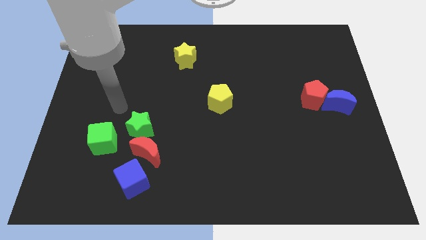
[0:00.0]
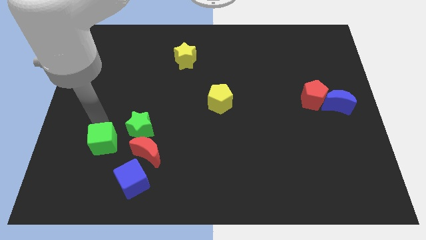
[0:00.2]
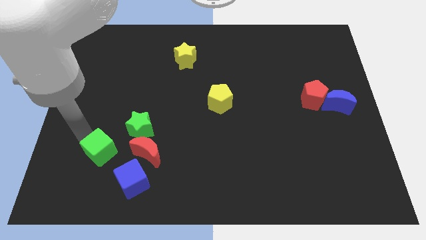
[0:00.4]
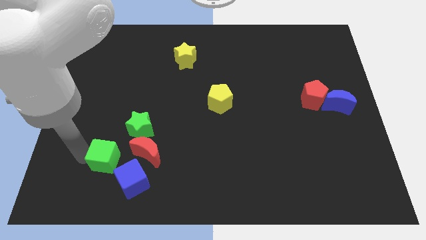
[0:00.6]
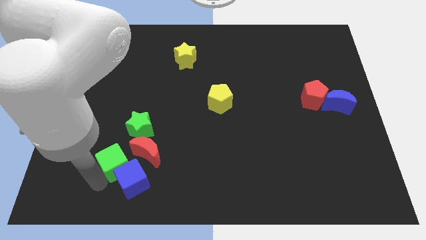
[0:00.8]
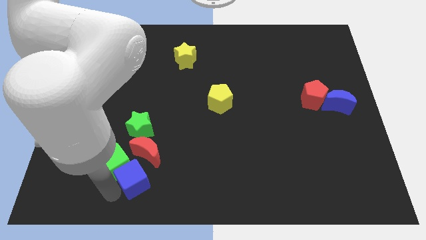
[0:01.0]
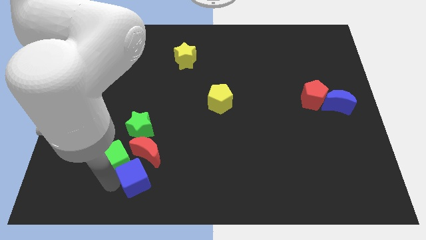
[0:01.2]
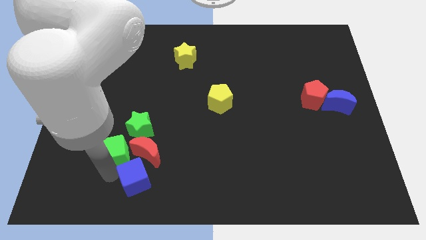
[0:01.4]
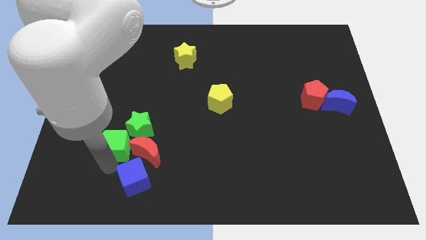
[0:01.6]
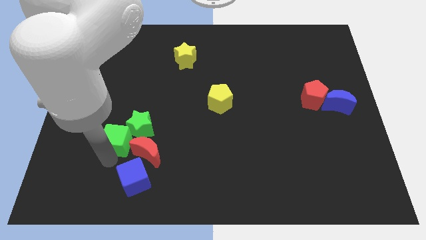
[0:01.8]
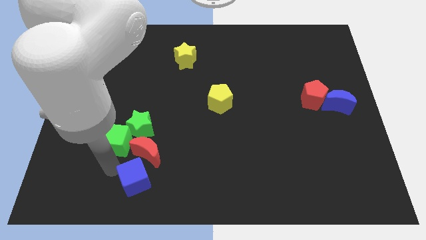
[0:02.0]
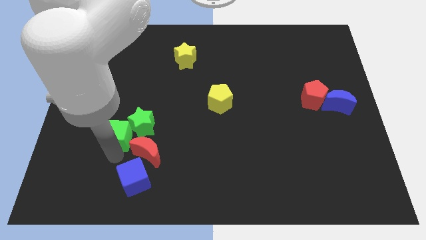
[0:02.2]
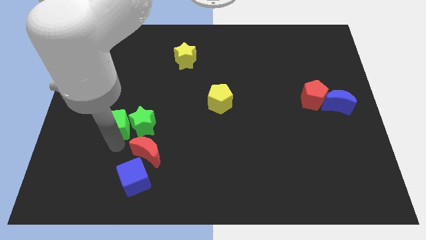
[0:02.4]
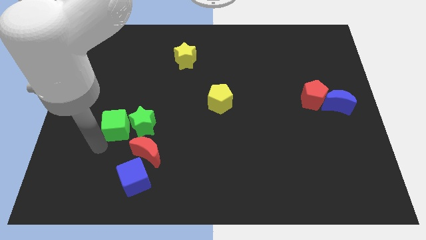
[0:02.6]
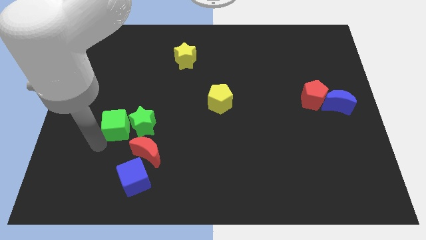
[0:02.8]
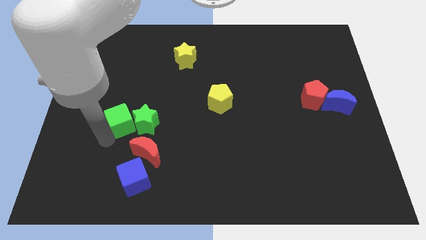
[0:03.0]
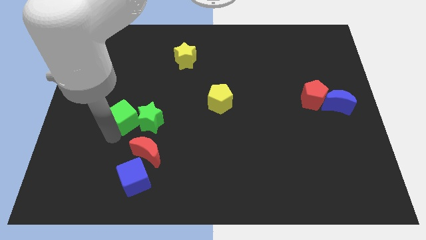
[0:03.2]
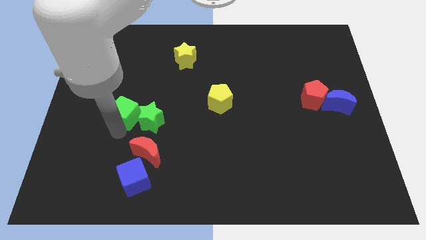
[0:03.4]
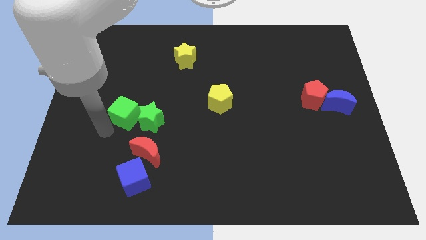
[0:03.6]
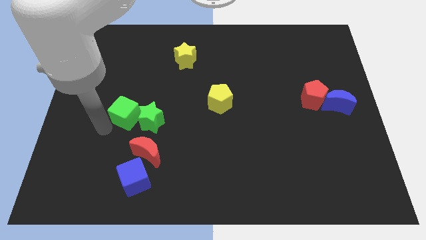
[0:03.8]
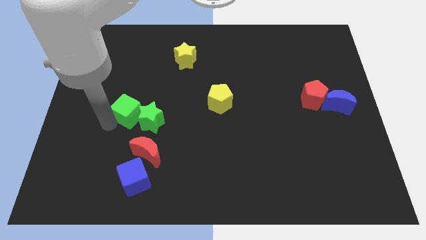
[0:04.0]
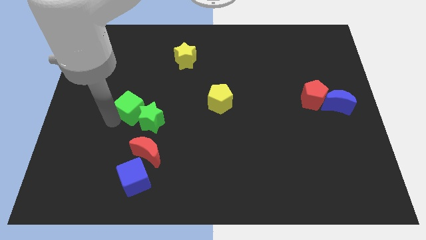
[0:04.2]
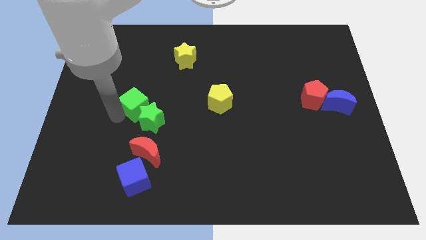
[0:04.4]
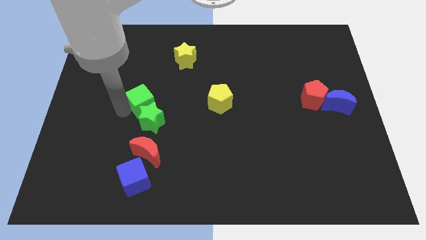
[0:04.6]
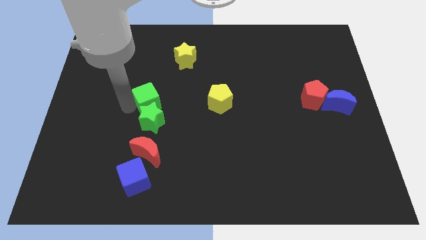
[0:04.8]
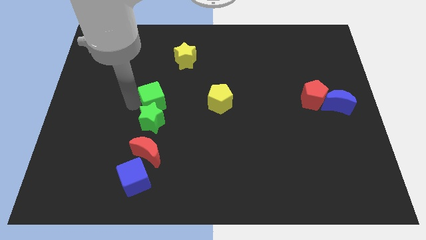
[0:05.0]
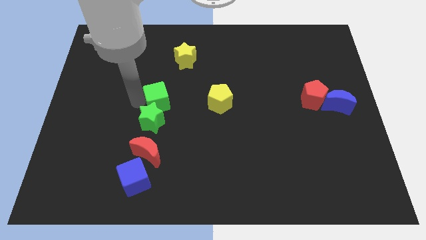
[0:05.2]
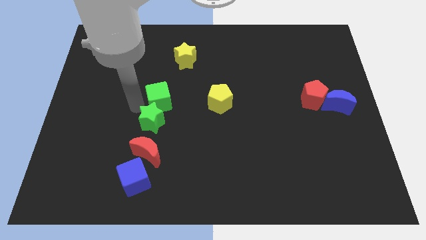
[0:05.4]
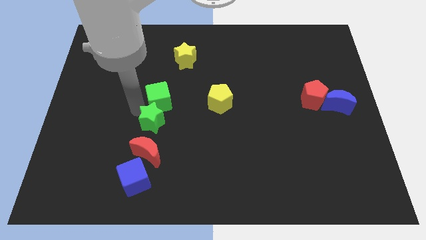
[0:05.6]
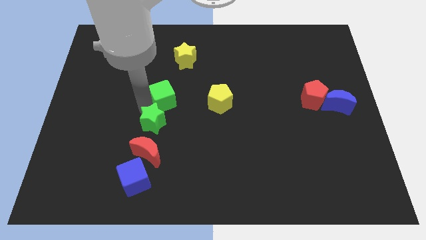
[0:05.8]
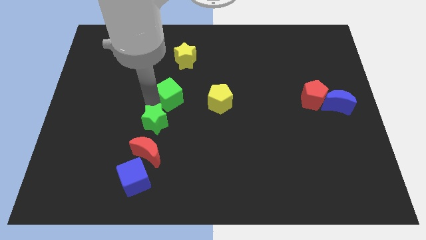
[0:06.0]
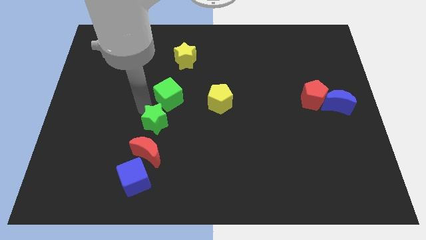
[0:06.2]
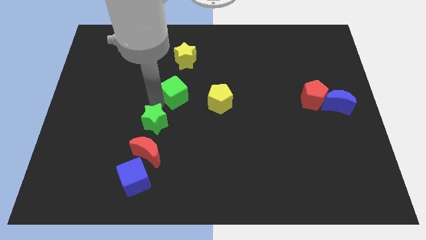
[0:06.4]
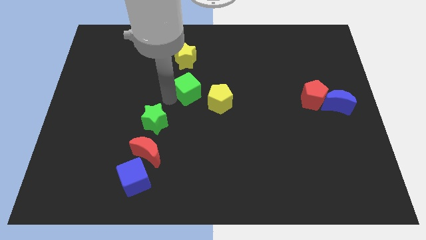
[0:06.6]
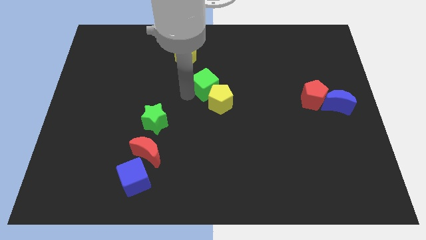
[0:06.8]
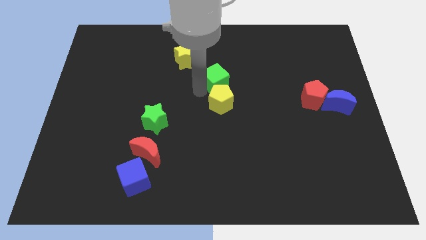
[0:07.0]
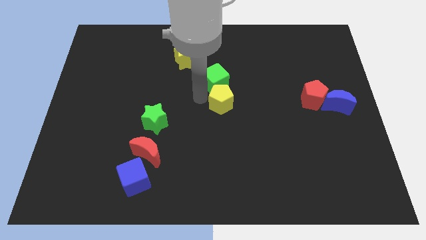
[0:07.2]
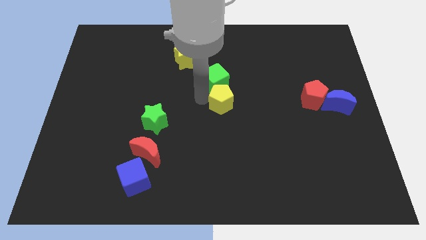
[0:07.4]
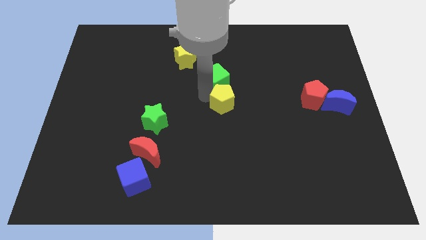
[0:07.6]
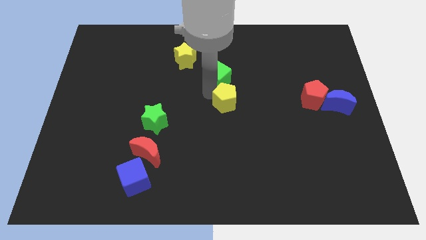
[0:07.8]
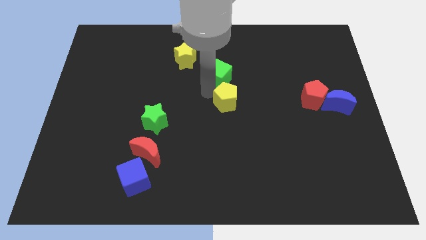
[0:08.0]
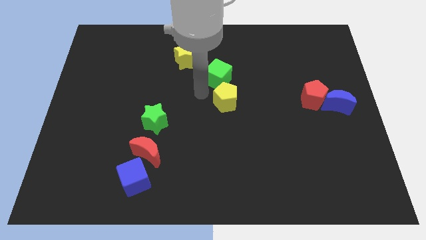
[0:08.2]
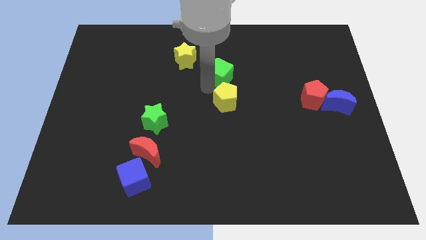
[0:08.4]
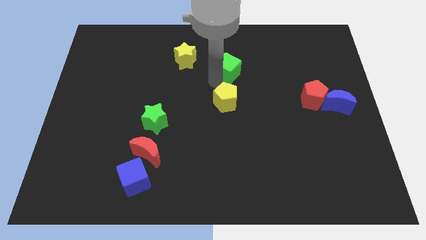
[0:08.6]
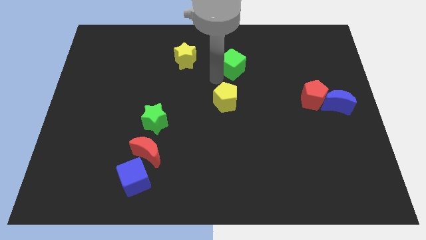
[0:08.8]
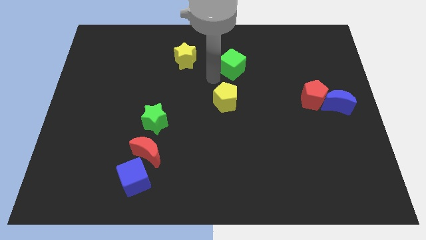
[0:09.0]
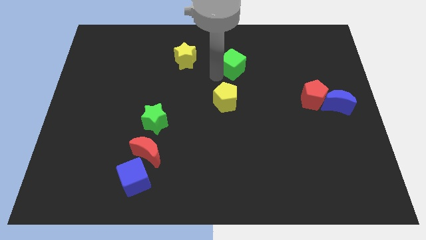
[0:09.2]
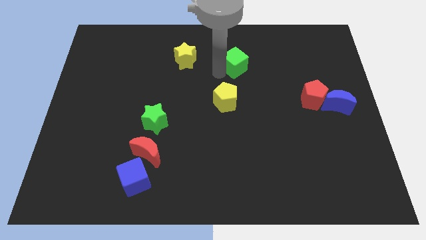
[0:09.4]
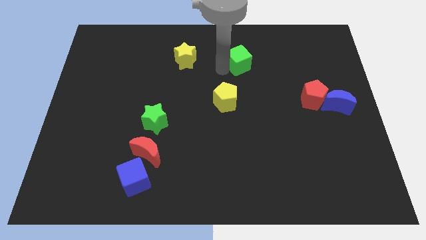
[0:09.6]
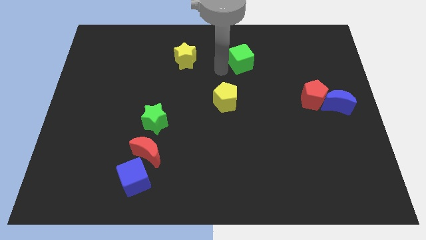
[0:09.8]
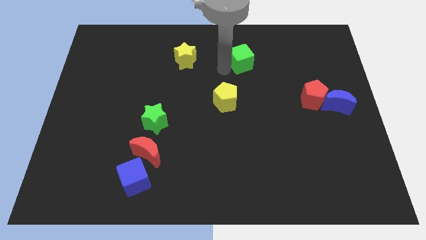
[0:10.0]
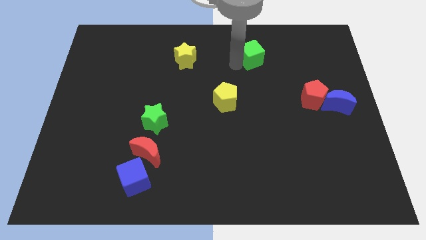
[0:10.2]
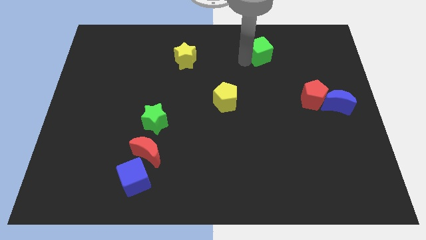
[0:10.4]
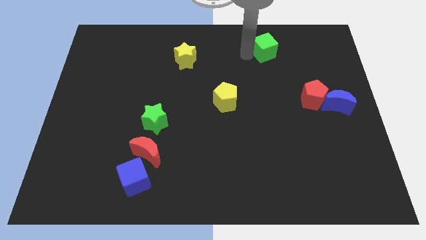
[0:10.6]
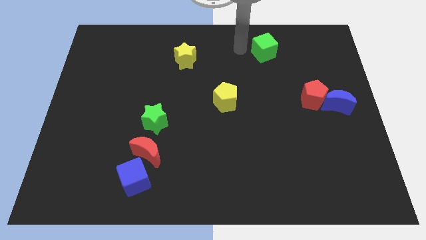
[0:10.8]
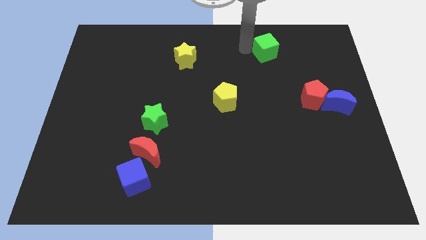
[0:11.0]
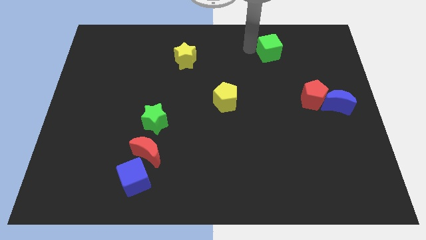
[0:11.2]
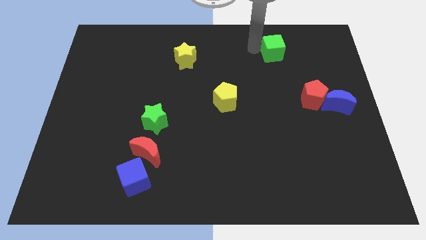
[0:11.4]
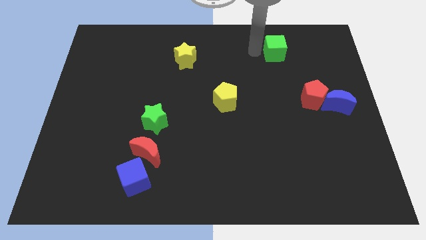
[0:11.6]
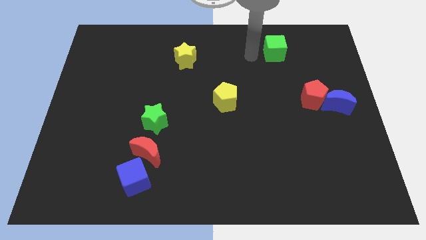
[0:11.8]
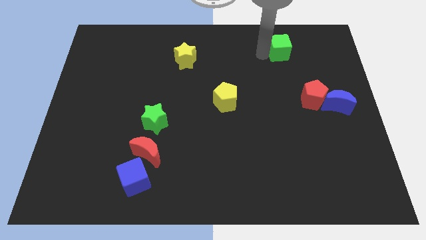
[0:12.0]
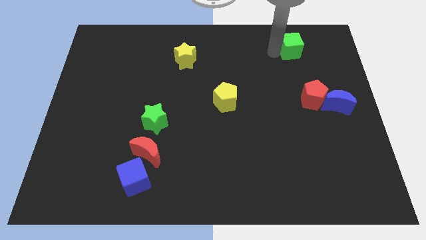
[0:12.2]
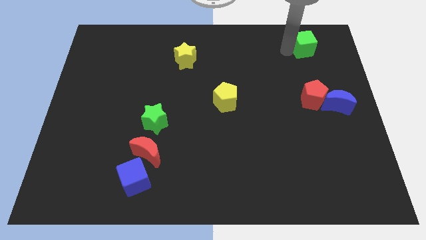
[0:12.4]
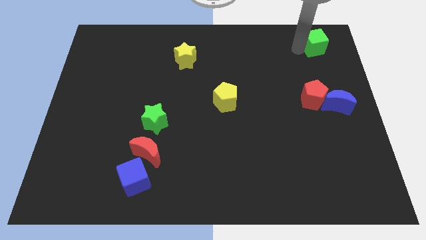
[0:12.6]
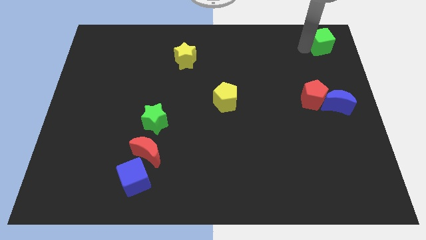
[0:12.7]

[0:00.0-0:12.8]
push the green cube to the top right of the board

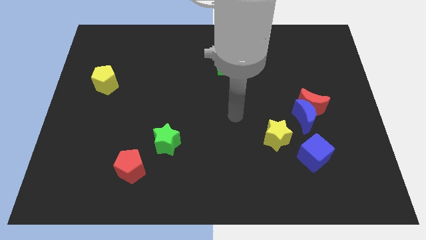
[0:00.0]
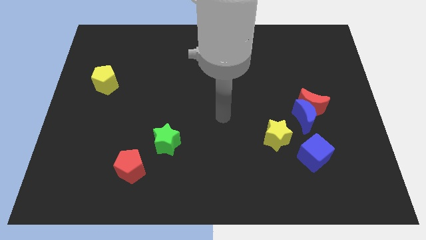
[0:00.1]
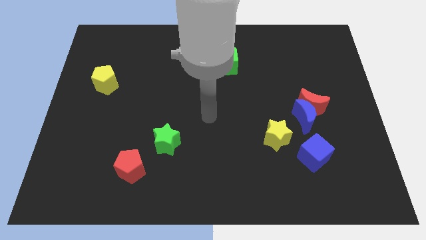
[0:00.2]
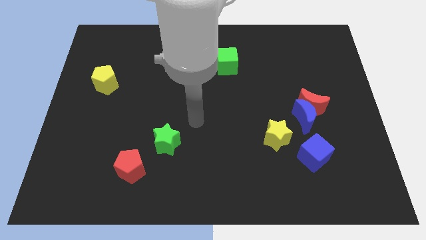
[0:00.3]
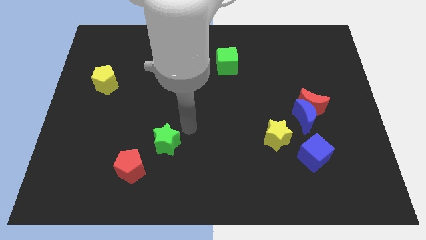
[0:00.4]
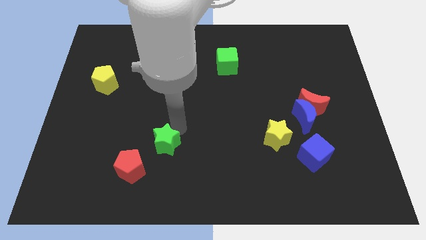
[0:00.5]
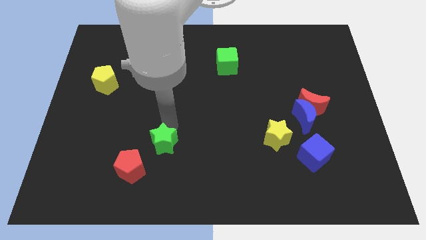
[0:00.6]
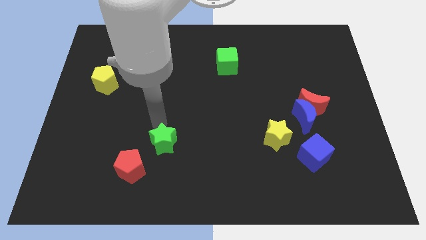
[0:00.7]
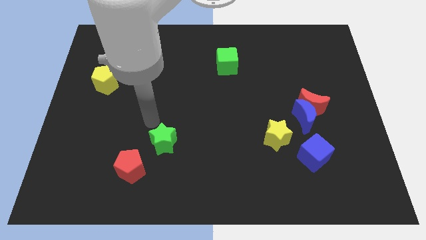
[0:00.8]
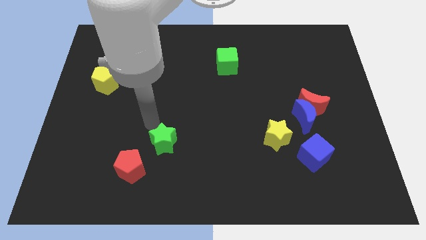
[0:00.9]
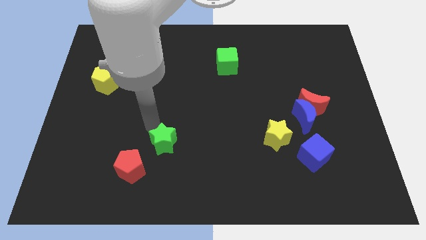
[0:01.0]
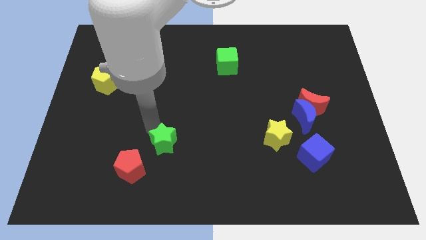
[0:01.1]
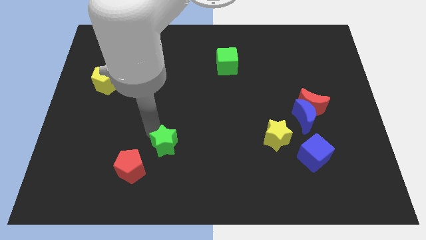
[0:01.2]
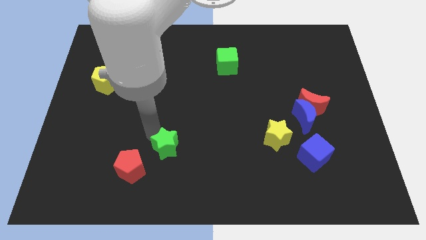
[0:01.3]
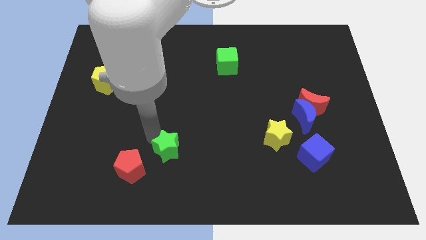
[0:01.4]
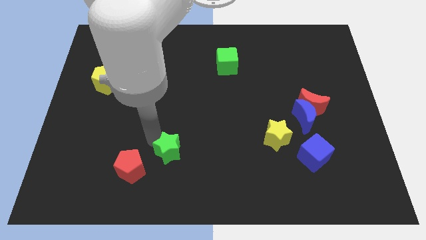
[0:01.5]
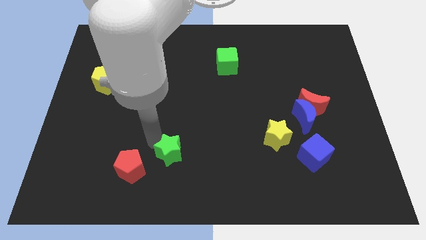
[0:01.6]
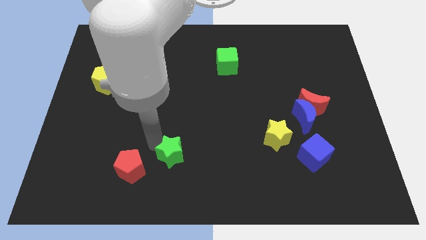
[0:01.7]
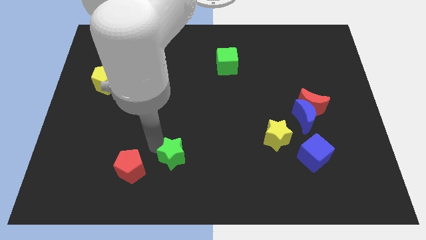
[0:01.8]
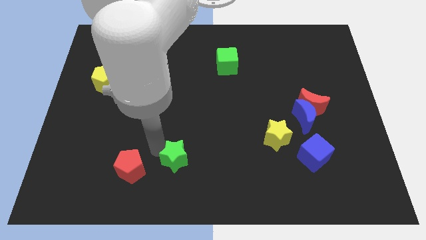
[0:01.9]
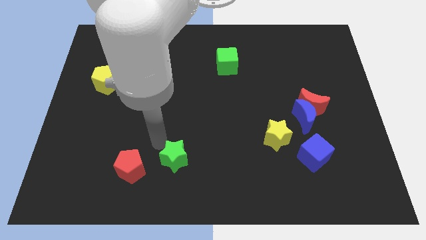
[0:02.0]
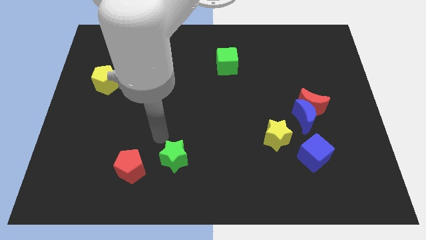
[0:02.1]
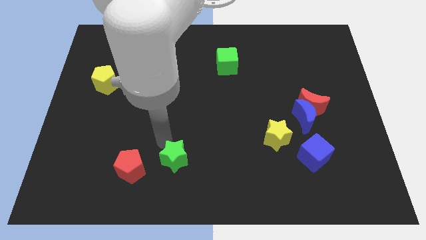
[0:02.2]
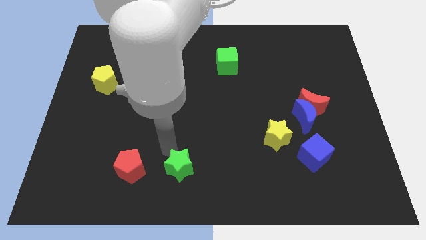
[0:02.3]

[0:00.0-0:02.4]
slide the green star to the bottom
